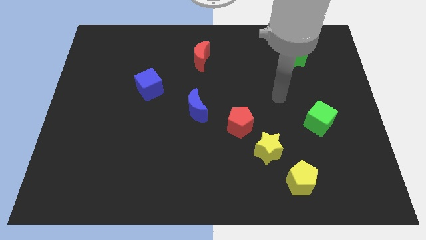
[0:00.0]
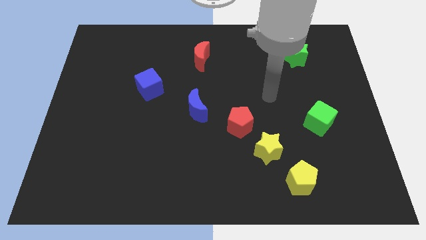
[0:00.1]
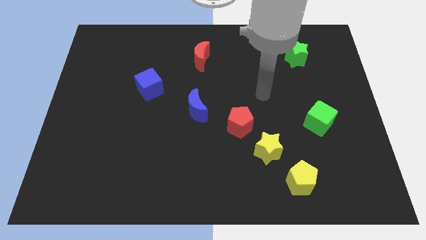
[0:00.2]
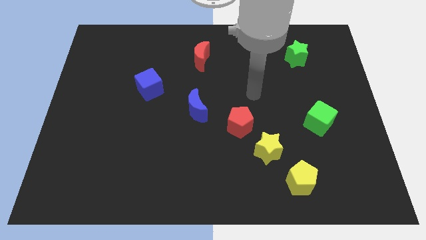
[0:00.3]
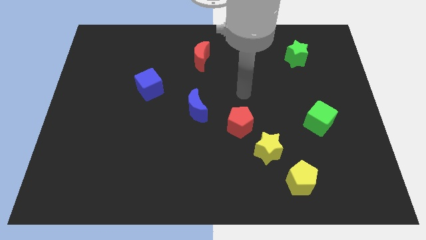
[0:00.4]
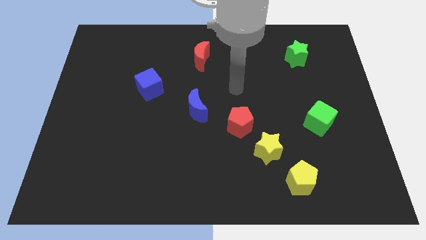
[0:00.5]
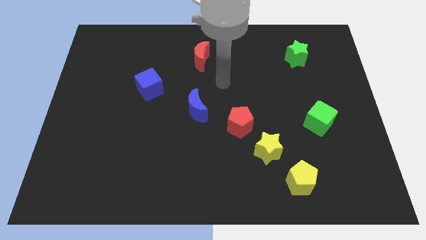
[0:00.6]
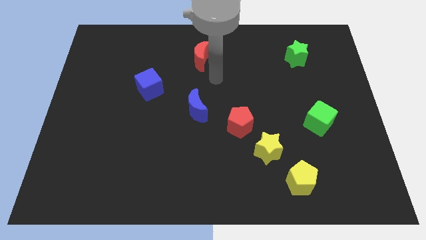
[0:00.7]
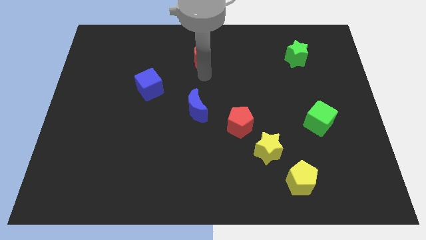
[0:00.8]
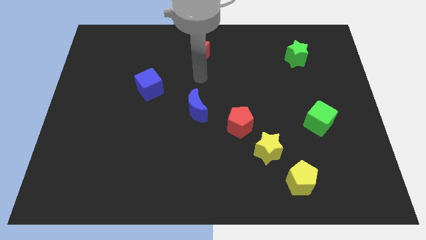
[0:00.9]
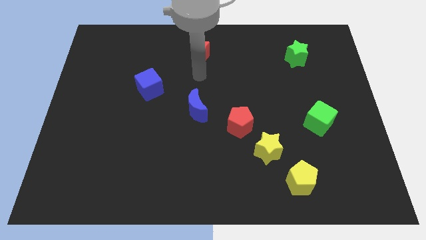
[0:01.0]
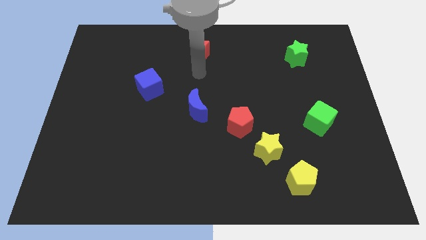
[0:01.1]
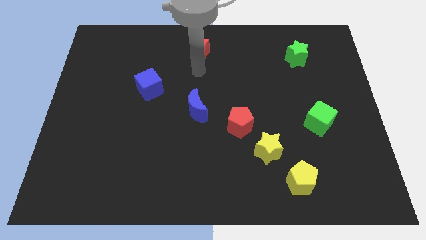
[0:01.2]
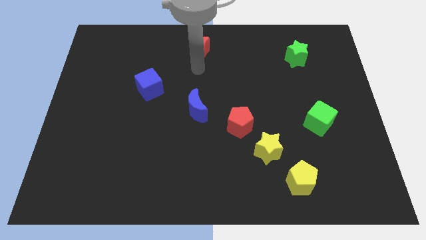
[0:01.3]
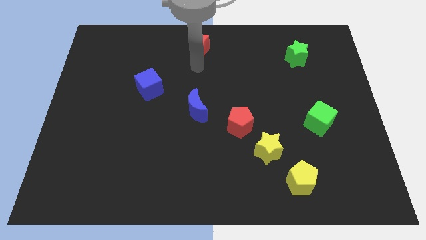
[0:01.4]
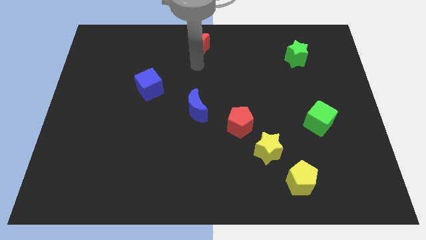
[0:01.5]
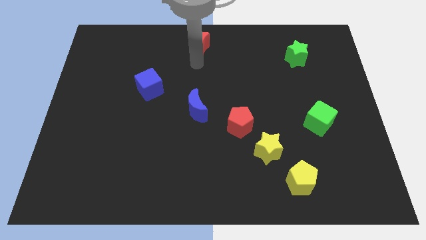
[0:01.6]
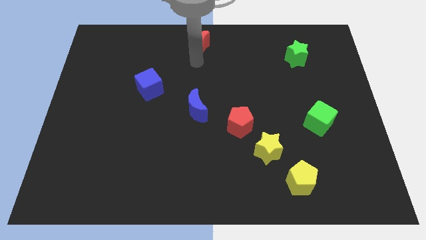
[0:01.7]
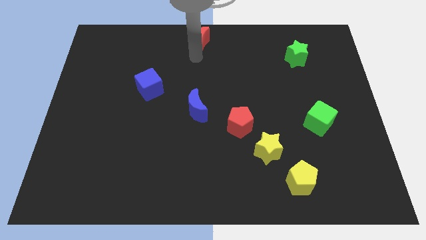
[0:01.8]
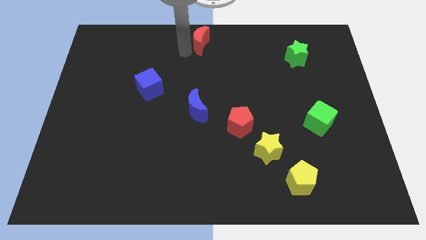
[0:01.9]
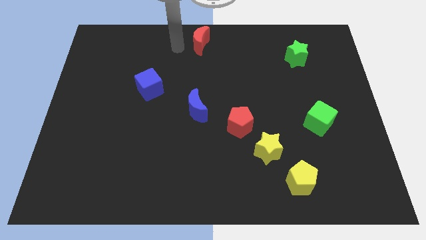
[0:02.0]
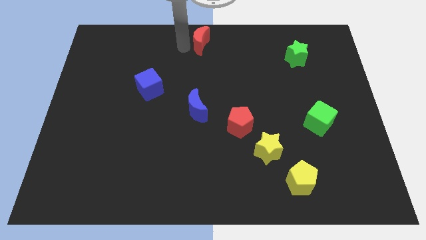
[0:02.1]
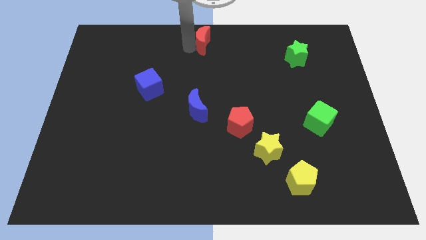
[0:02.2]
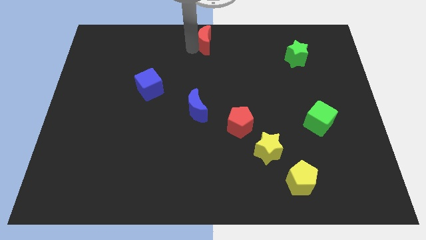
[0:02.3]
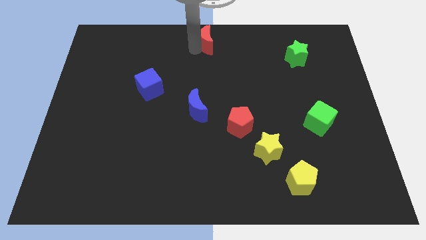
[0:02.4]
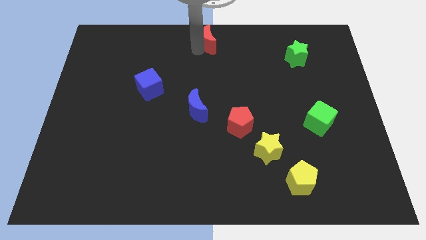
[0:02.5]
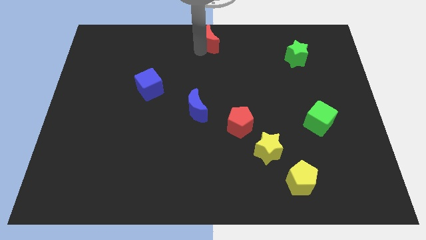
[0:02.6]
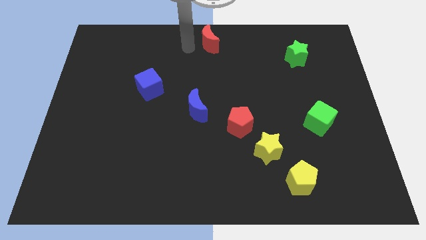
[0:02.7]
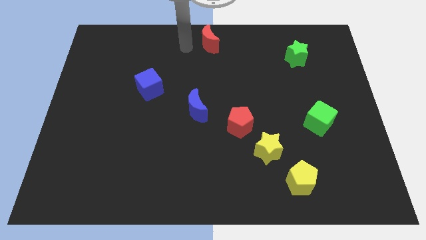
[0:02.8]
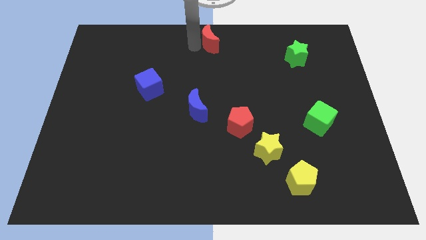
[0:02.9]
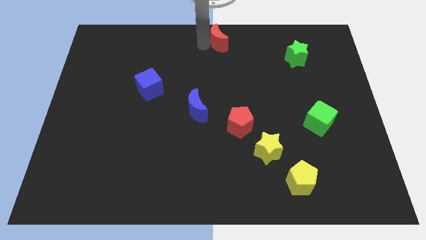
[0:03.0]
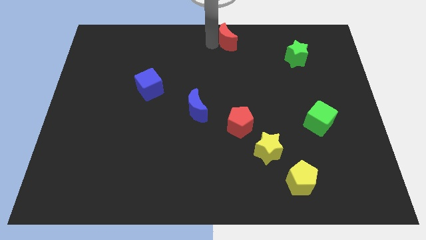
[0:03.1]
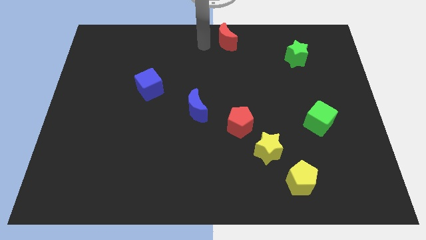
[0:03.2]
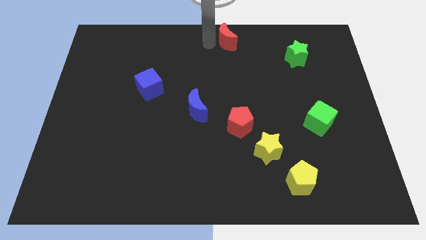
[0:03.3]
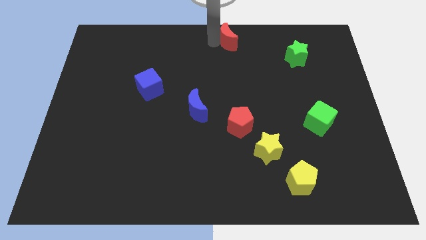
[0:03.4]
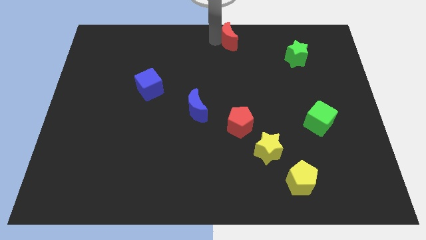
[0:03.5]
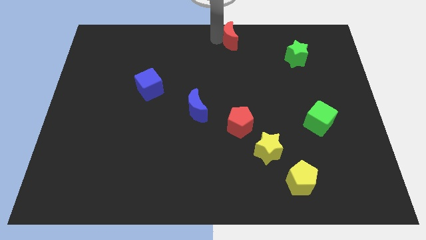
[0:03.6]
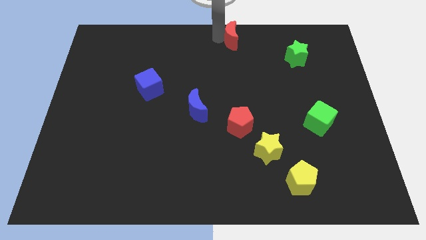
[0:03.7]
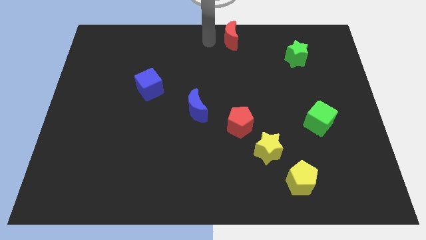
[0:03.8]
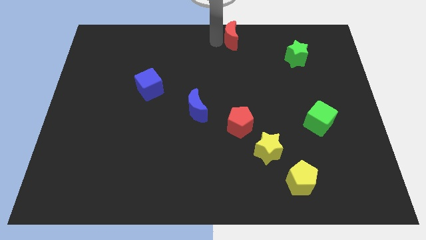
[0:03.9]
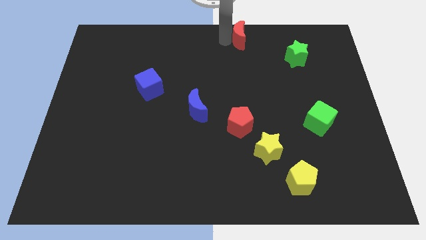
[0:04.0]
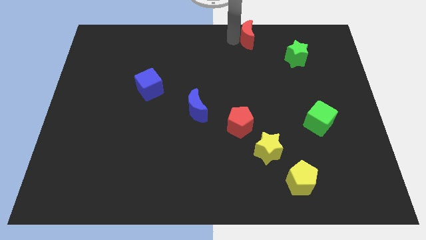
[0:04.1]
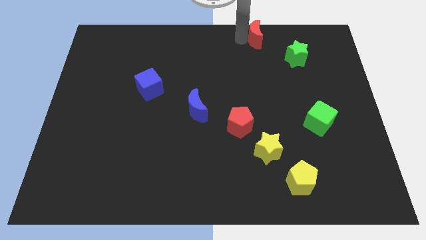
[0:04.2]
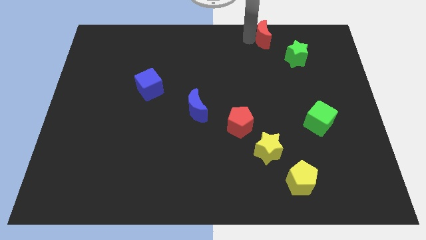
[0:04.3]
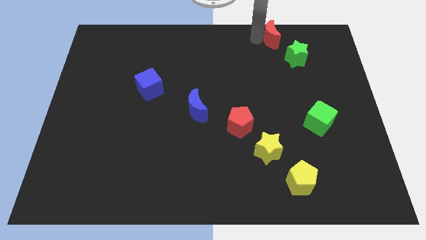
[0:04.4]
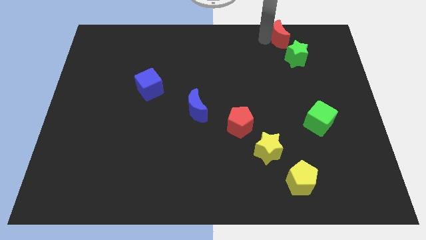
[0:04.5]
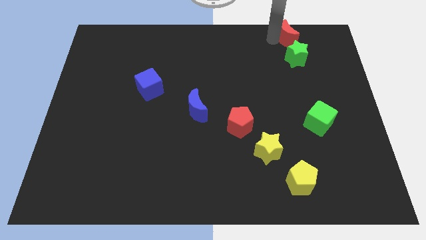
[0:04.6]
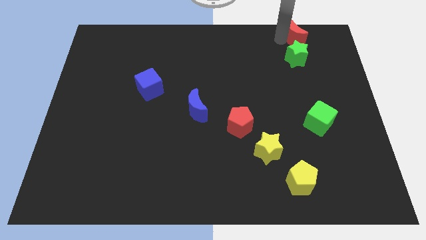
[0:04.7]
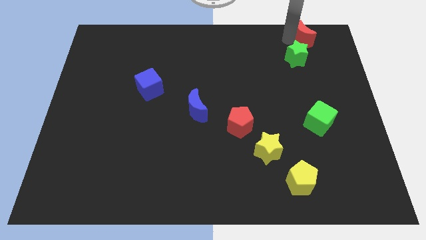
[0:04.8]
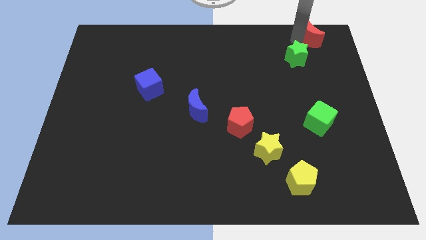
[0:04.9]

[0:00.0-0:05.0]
put the red moon to the upper right corner

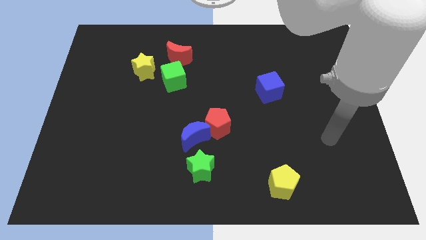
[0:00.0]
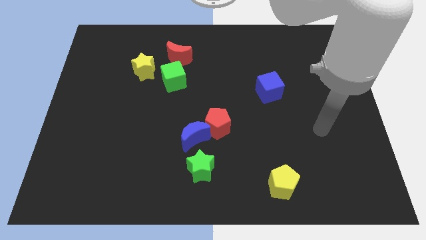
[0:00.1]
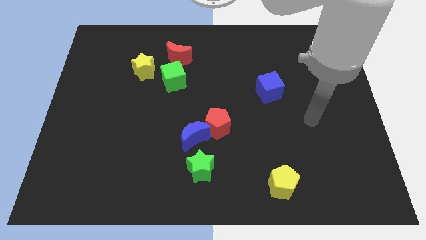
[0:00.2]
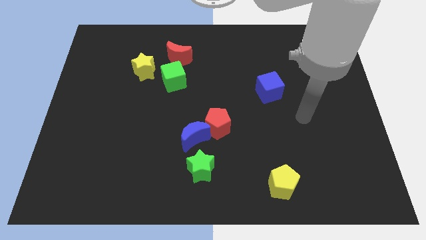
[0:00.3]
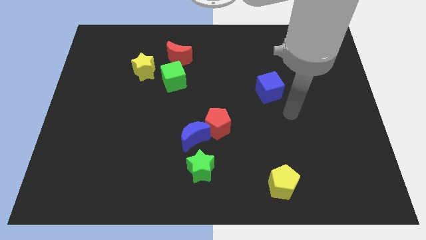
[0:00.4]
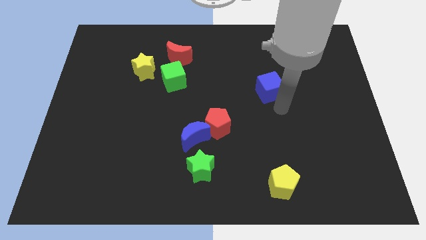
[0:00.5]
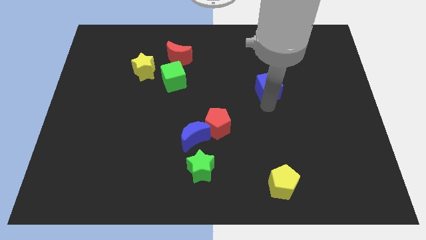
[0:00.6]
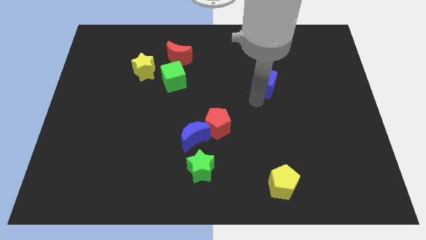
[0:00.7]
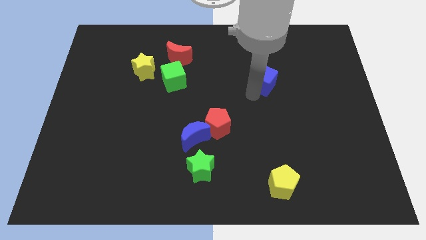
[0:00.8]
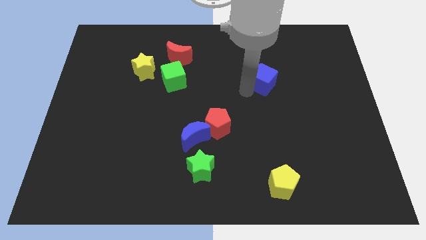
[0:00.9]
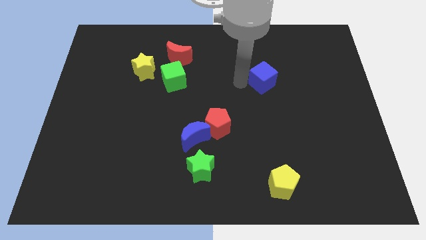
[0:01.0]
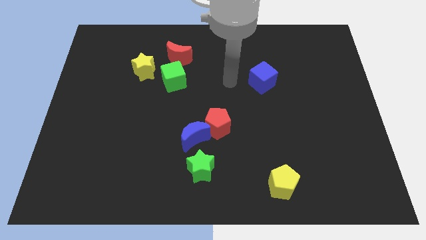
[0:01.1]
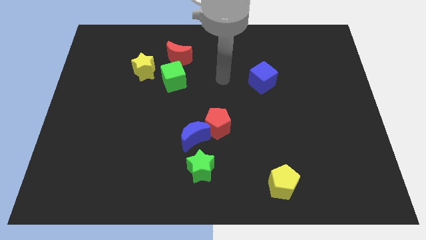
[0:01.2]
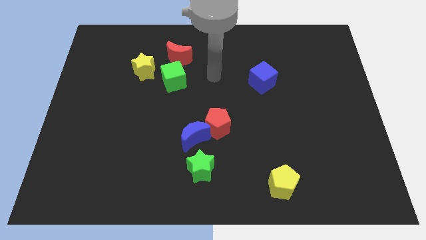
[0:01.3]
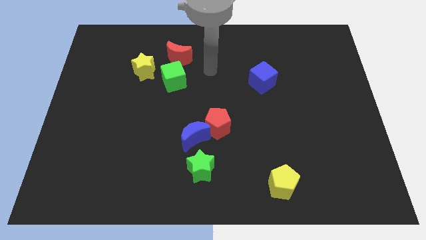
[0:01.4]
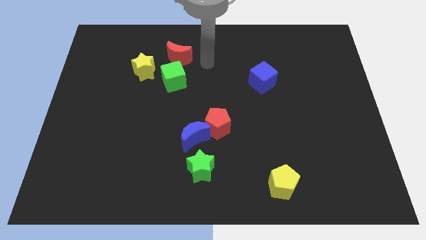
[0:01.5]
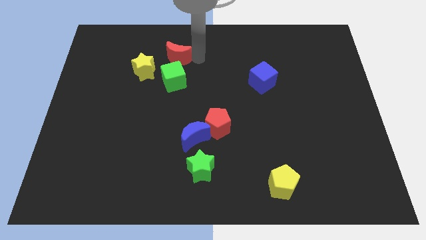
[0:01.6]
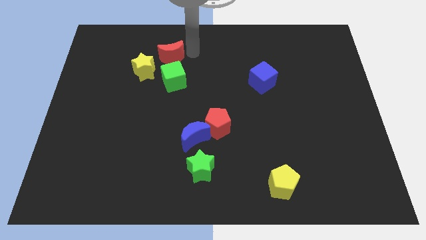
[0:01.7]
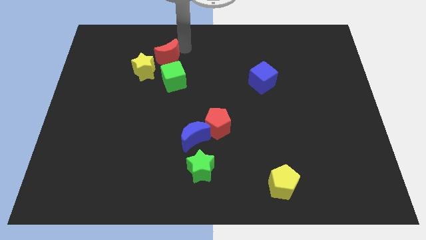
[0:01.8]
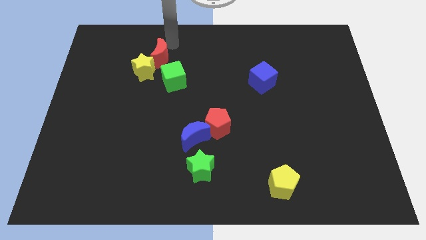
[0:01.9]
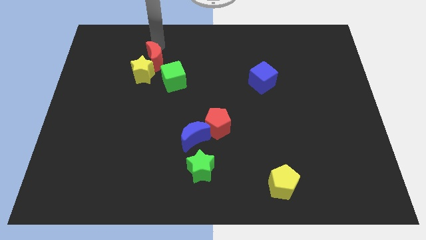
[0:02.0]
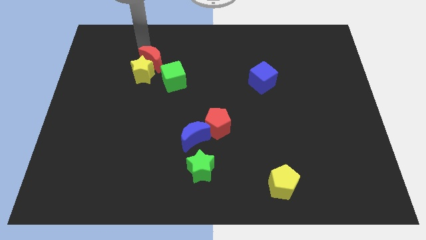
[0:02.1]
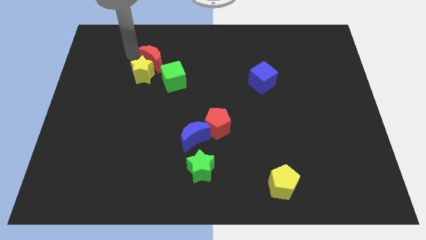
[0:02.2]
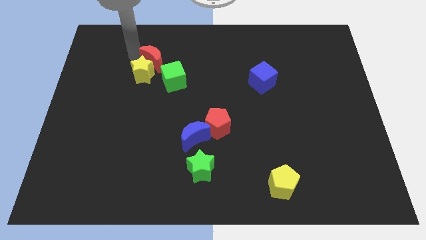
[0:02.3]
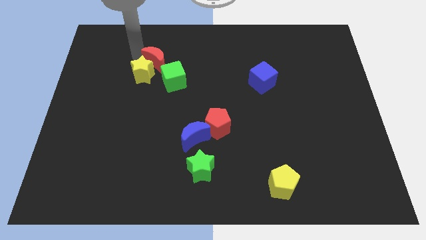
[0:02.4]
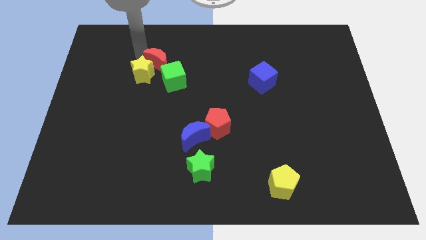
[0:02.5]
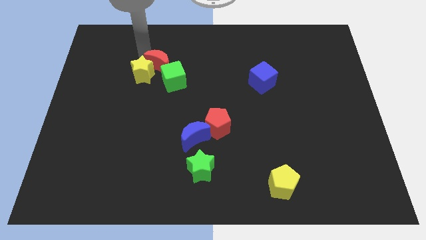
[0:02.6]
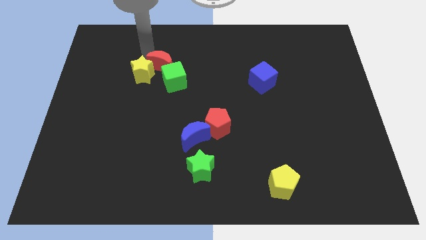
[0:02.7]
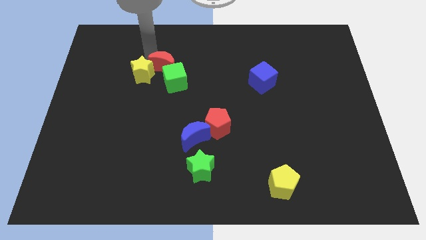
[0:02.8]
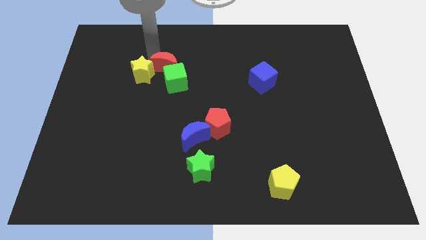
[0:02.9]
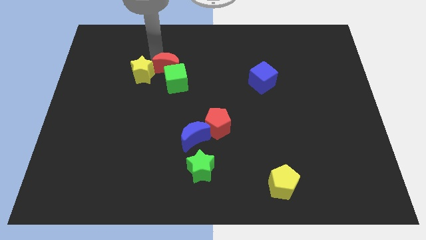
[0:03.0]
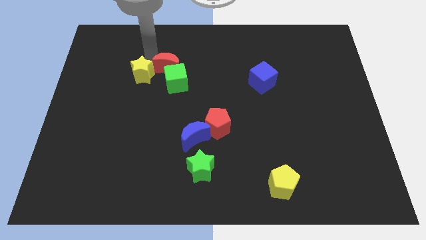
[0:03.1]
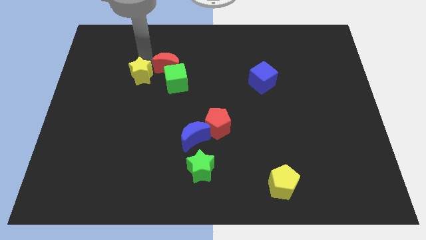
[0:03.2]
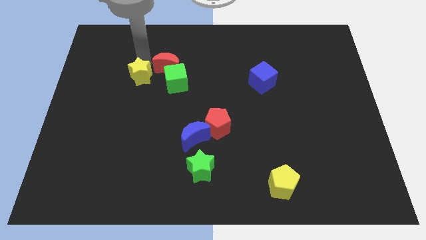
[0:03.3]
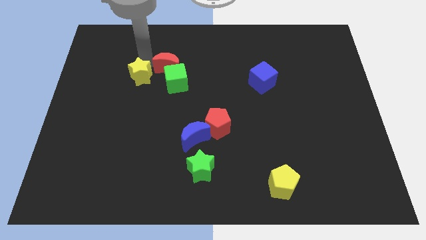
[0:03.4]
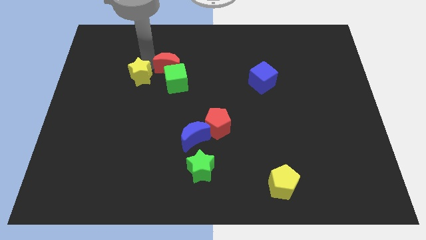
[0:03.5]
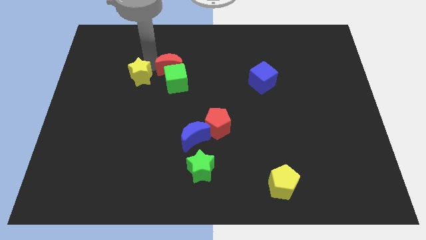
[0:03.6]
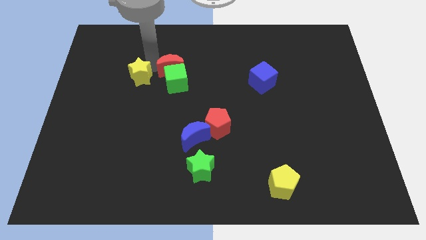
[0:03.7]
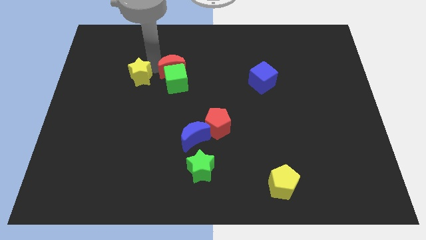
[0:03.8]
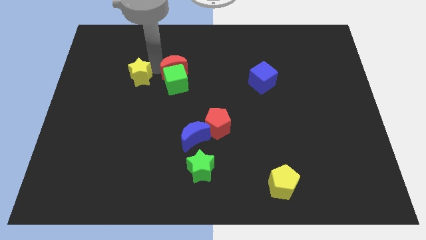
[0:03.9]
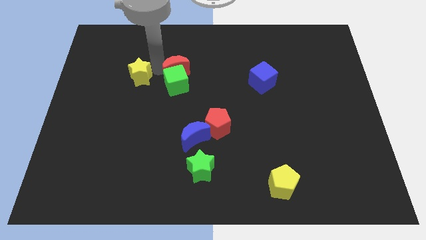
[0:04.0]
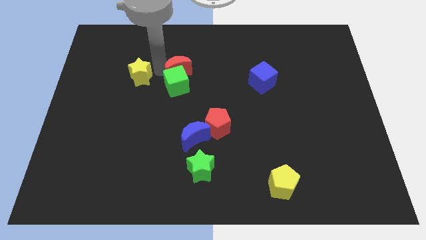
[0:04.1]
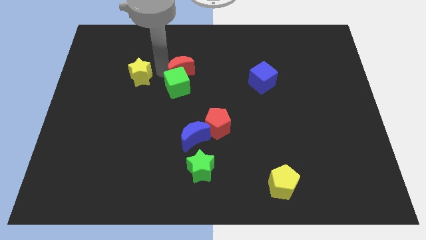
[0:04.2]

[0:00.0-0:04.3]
put the red moon to the middle of the board
